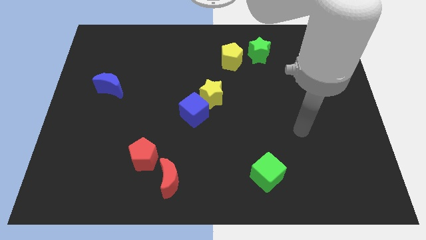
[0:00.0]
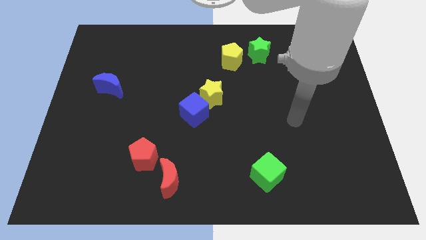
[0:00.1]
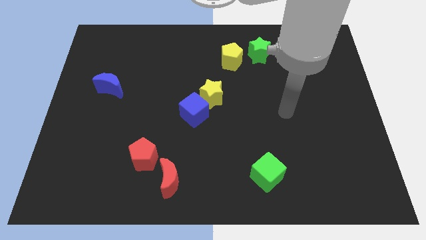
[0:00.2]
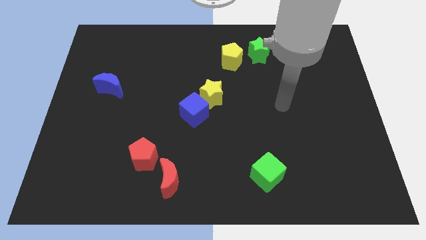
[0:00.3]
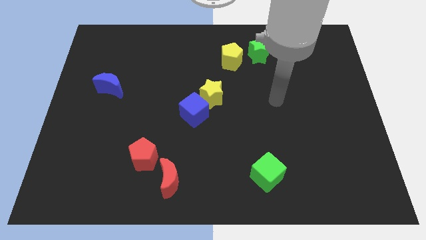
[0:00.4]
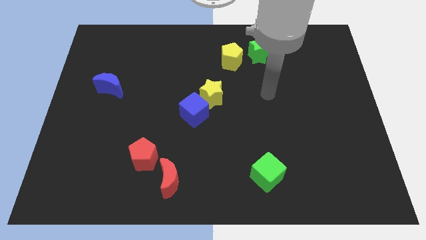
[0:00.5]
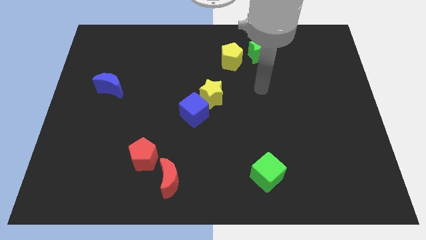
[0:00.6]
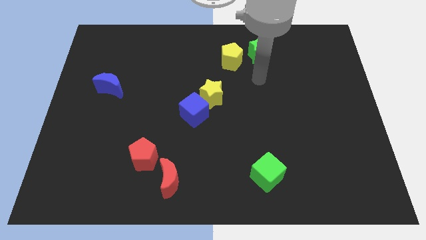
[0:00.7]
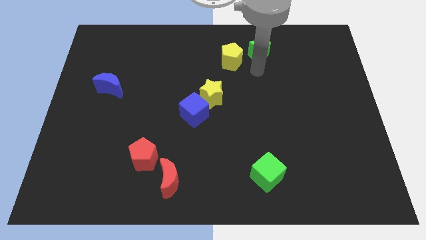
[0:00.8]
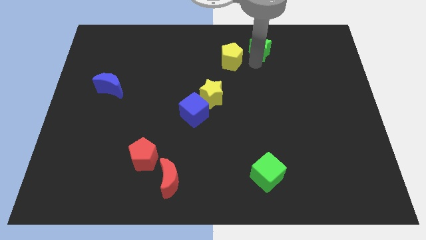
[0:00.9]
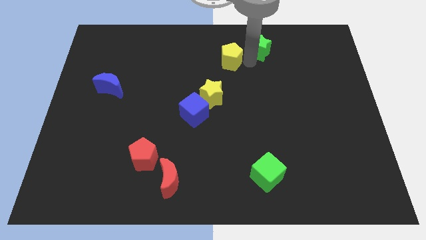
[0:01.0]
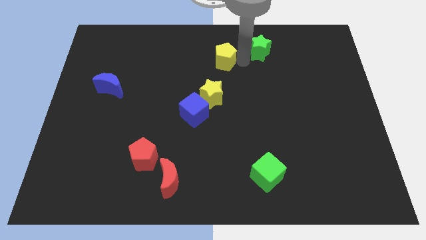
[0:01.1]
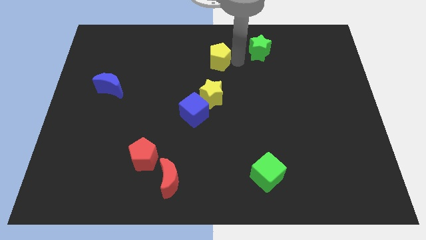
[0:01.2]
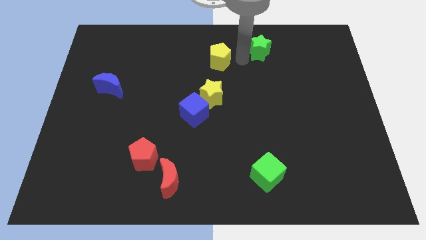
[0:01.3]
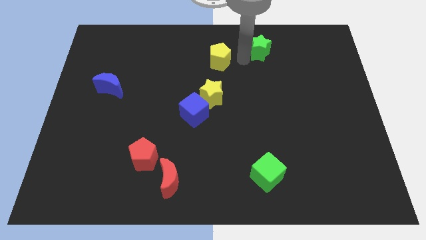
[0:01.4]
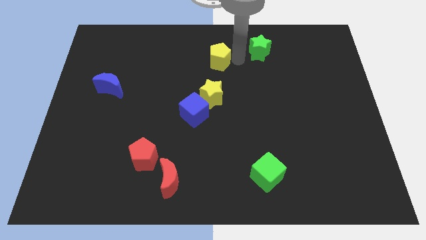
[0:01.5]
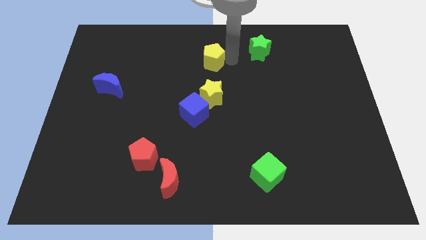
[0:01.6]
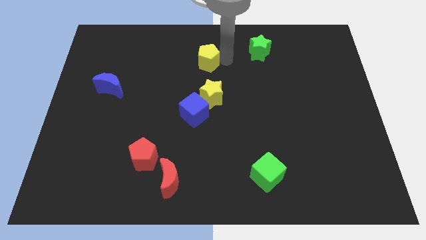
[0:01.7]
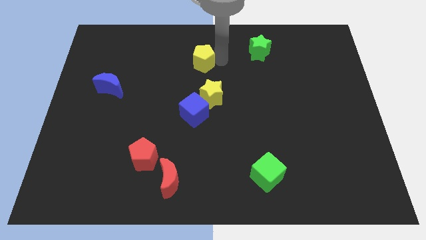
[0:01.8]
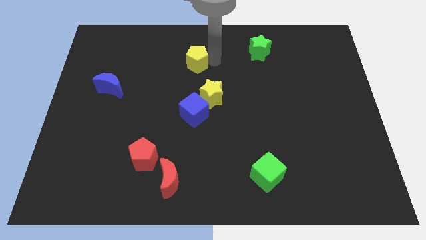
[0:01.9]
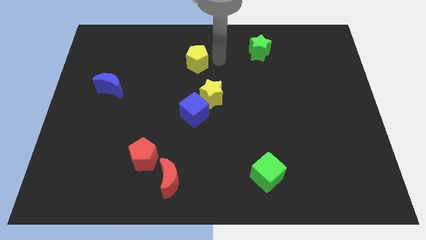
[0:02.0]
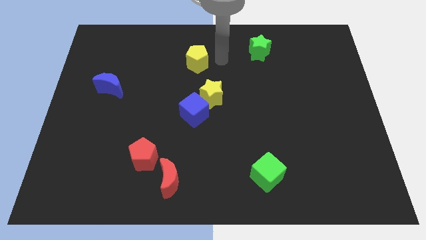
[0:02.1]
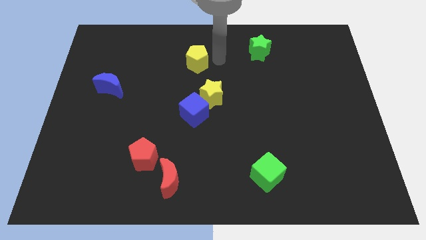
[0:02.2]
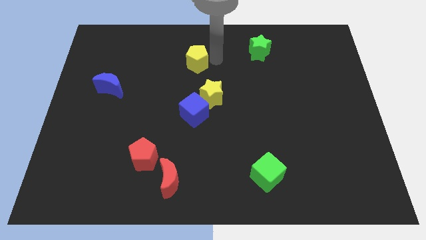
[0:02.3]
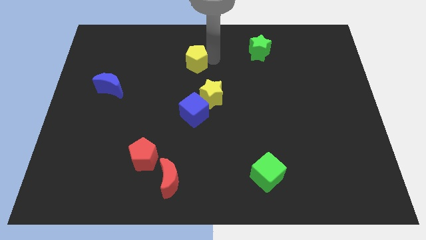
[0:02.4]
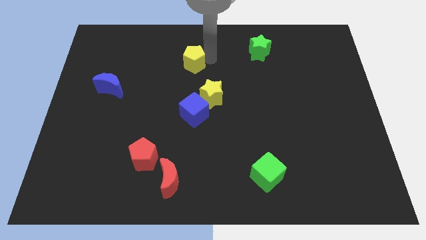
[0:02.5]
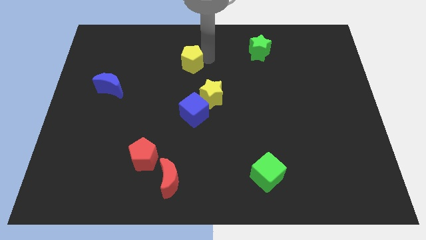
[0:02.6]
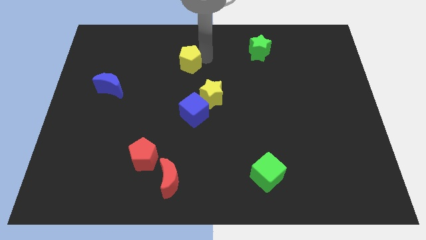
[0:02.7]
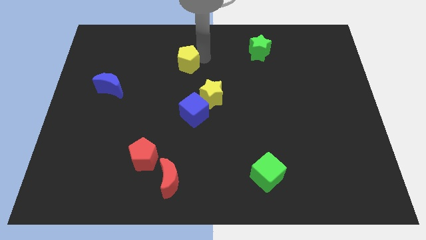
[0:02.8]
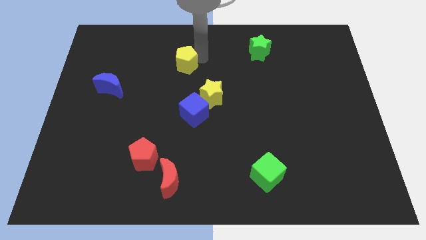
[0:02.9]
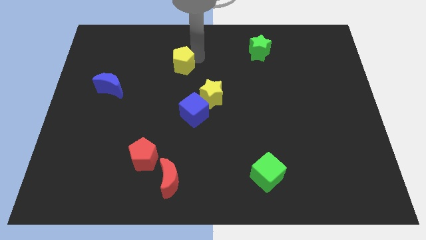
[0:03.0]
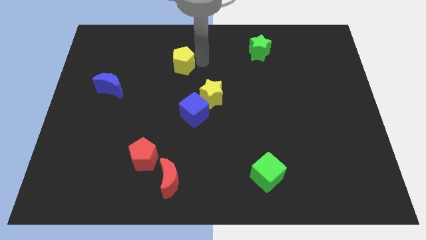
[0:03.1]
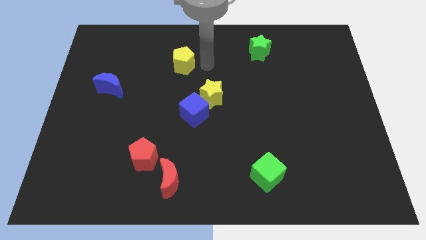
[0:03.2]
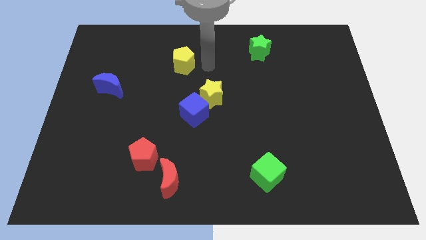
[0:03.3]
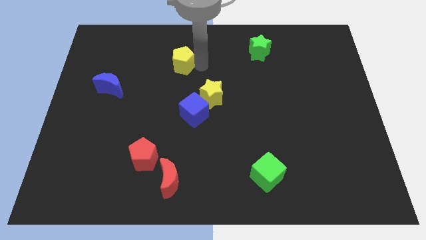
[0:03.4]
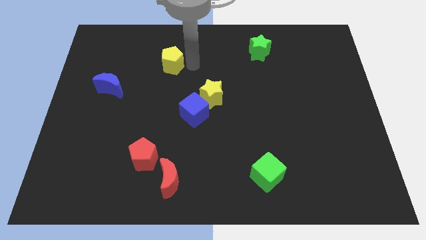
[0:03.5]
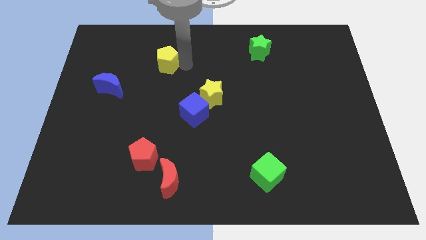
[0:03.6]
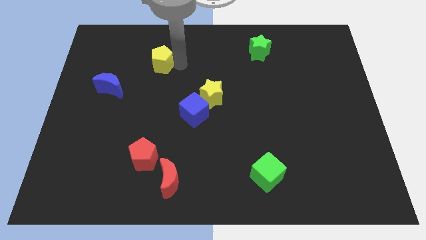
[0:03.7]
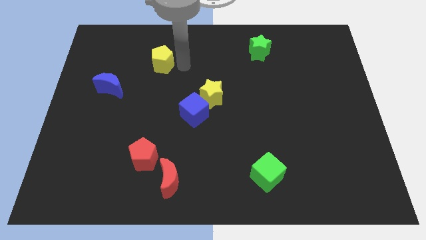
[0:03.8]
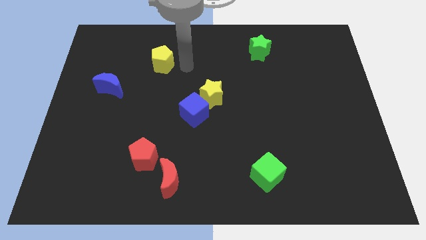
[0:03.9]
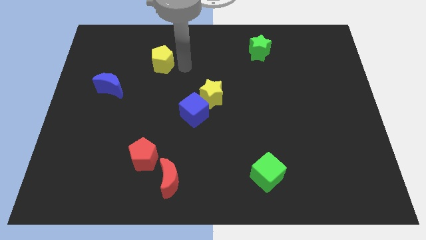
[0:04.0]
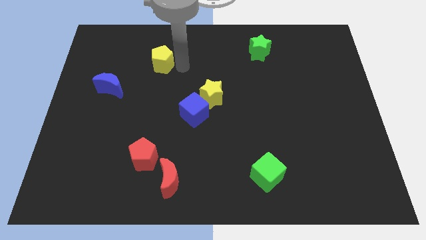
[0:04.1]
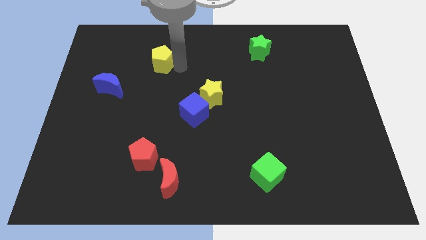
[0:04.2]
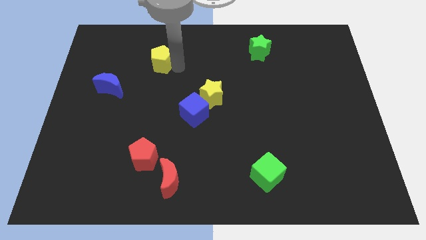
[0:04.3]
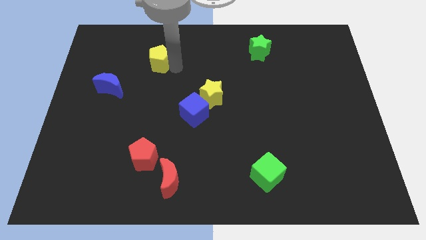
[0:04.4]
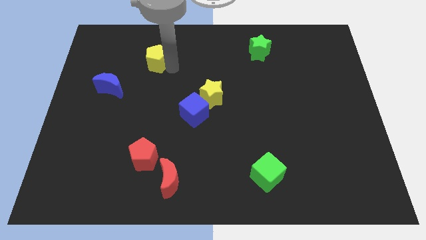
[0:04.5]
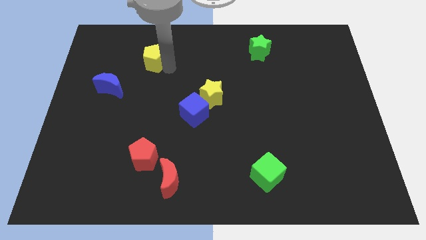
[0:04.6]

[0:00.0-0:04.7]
slide the yellow pentagon to the left

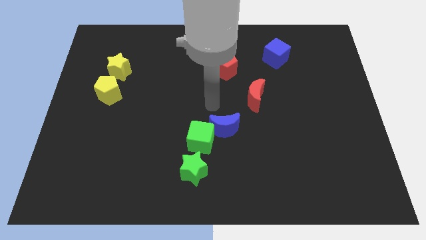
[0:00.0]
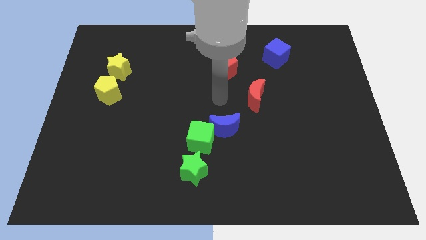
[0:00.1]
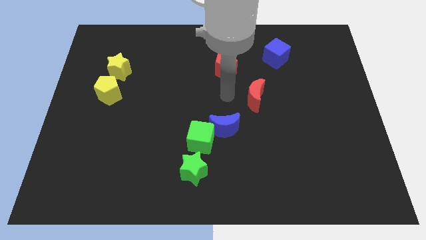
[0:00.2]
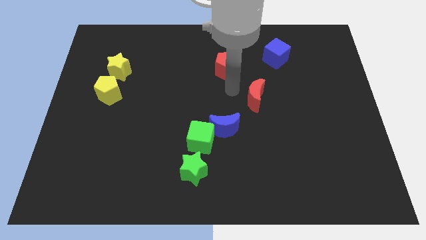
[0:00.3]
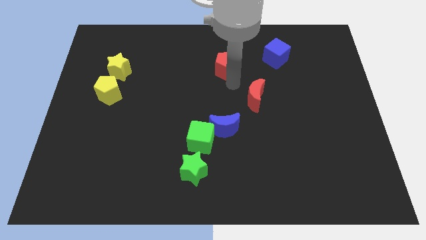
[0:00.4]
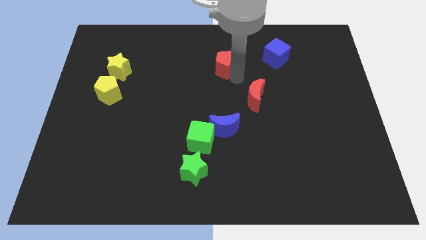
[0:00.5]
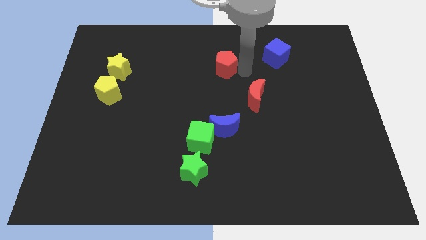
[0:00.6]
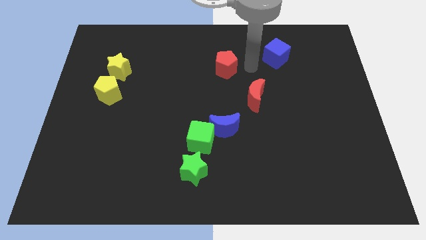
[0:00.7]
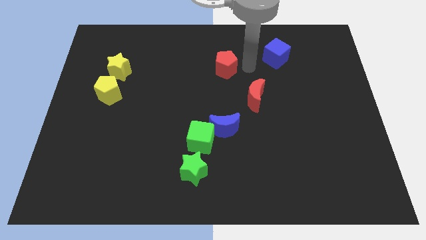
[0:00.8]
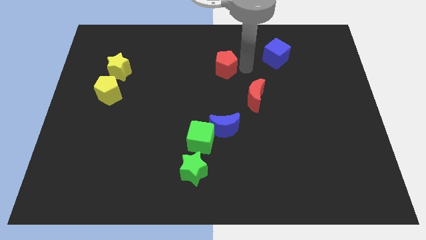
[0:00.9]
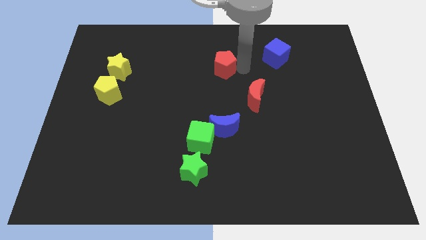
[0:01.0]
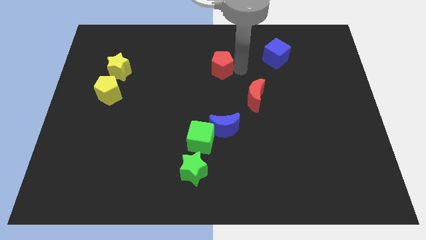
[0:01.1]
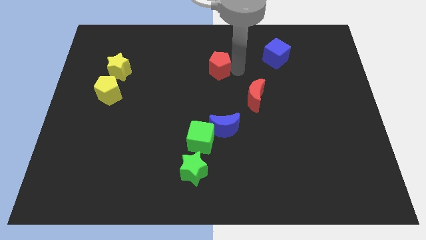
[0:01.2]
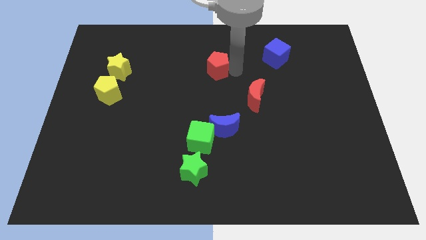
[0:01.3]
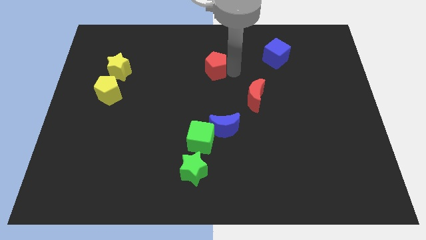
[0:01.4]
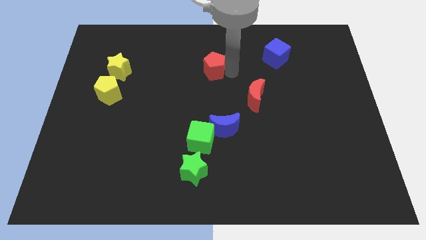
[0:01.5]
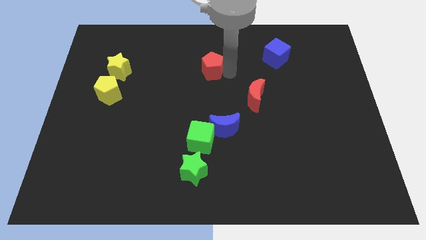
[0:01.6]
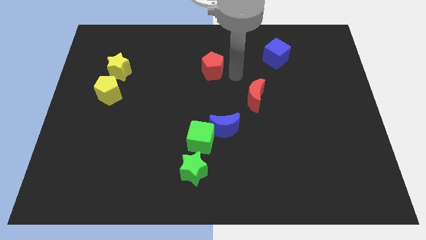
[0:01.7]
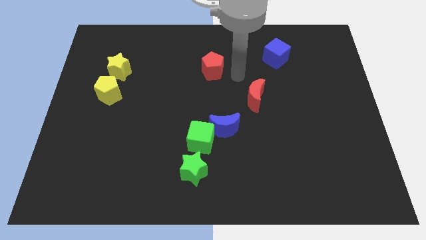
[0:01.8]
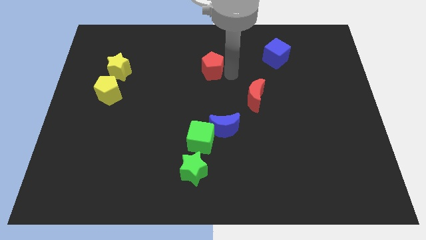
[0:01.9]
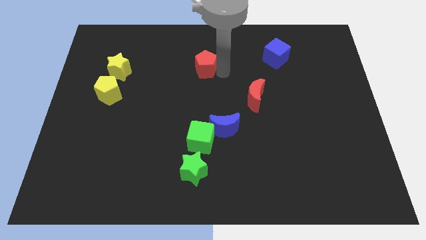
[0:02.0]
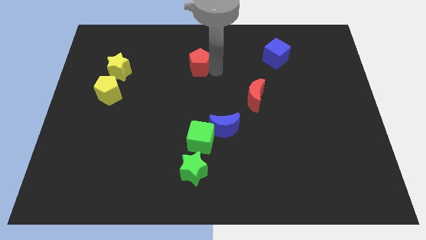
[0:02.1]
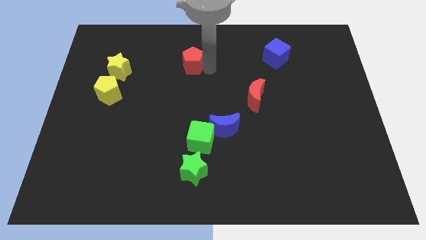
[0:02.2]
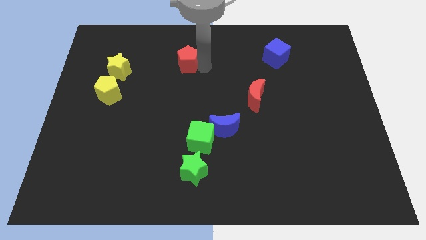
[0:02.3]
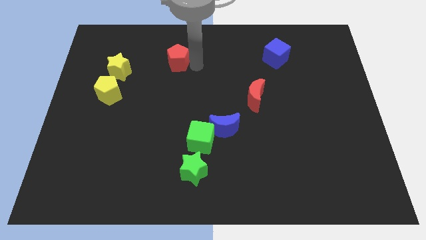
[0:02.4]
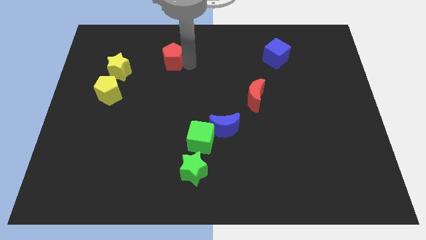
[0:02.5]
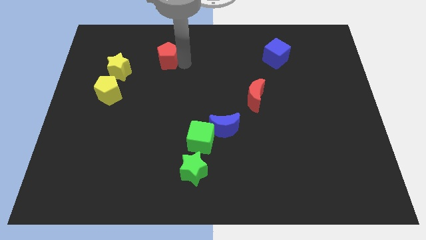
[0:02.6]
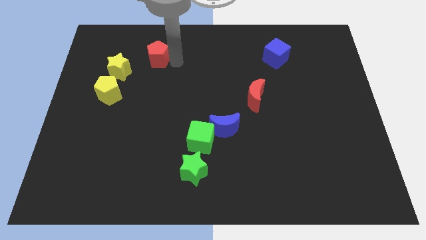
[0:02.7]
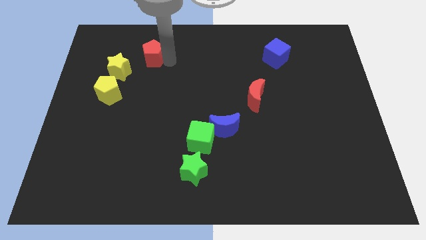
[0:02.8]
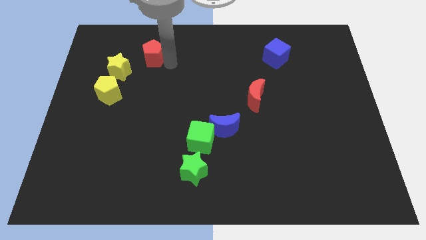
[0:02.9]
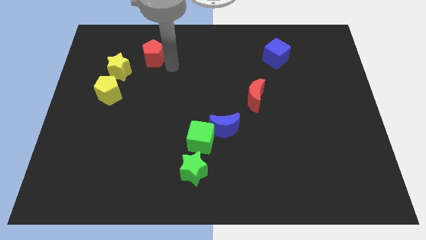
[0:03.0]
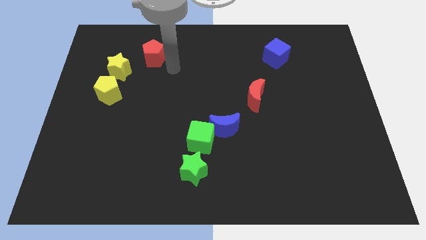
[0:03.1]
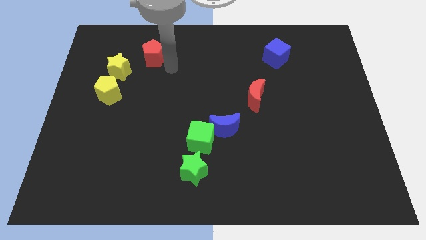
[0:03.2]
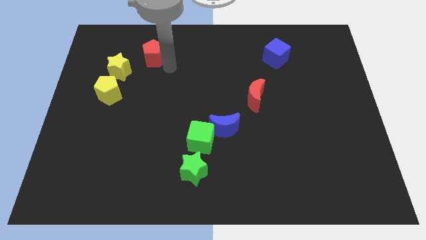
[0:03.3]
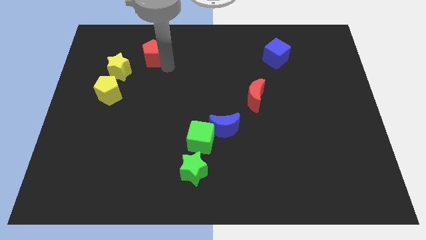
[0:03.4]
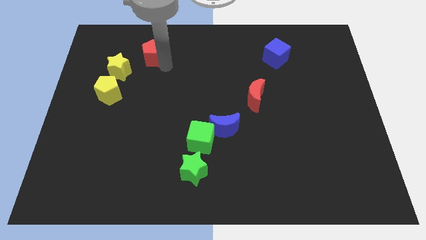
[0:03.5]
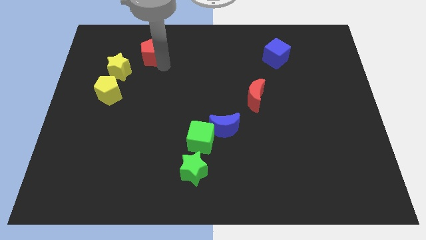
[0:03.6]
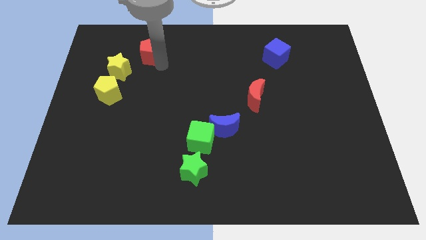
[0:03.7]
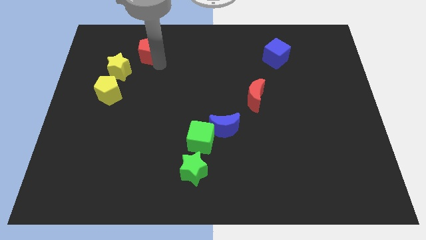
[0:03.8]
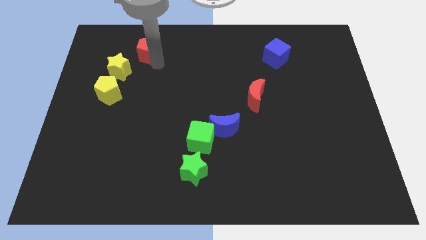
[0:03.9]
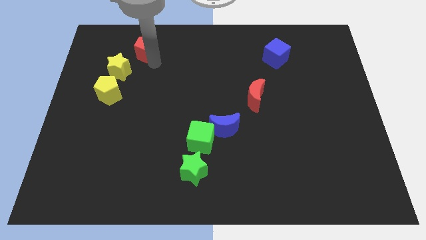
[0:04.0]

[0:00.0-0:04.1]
move the red pentagon left
